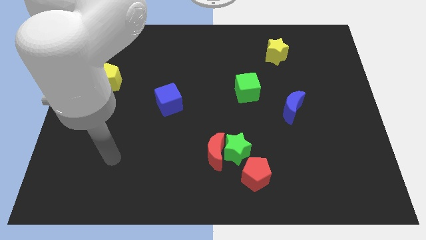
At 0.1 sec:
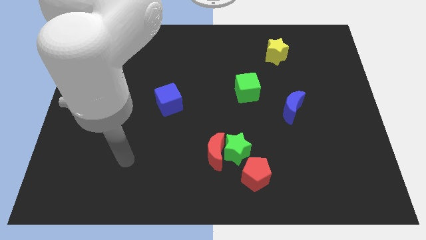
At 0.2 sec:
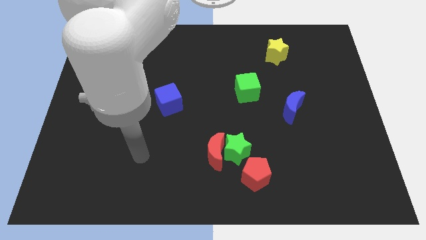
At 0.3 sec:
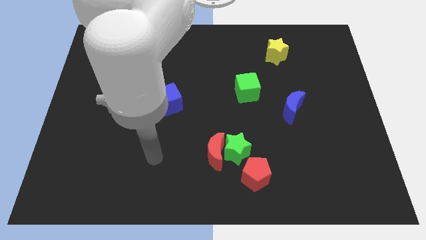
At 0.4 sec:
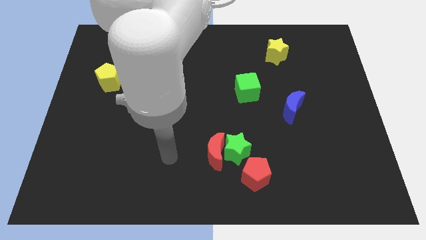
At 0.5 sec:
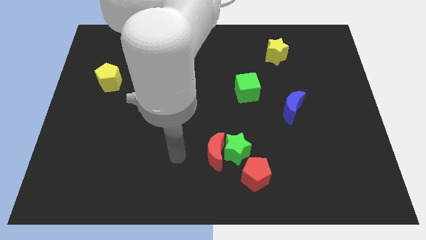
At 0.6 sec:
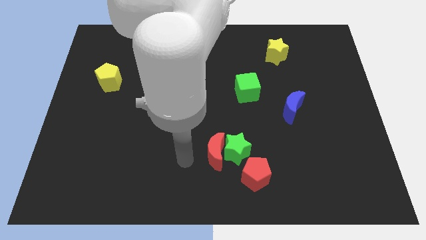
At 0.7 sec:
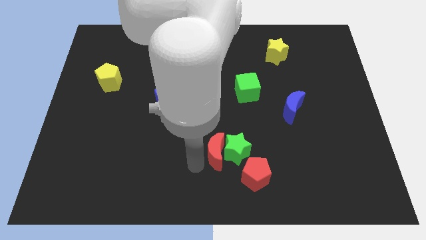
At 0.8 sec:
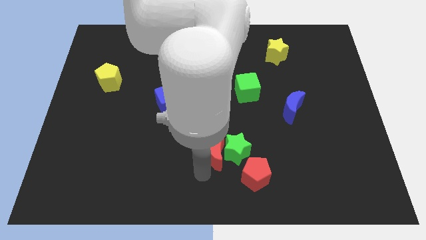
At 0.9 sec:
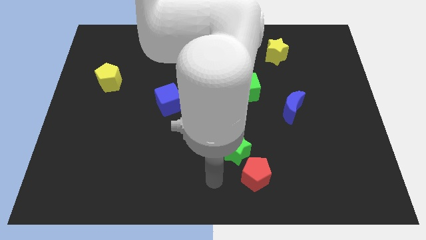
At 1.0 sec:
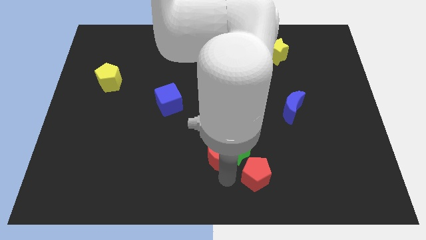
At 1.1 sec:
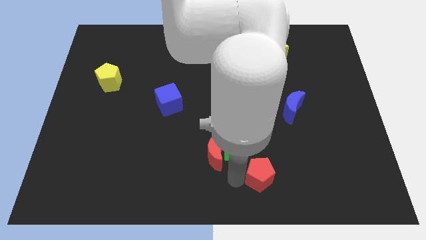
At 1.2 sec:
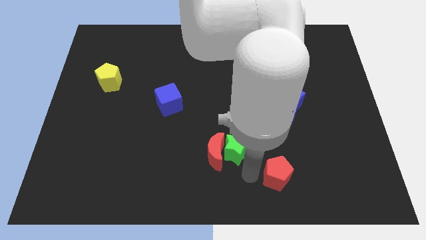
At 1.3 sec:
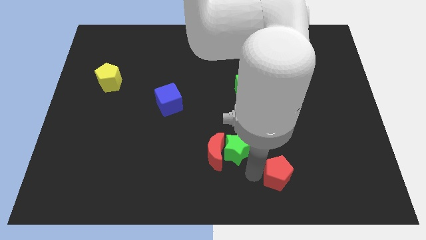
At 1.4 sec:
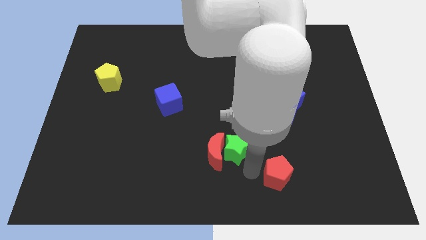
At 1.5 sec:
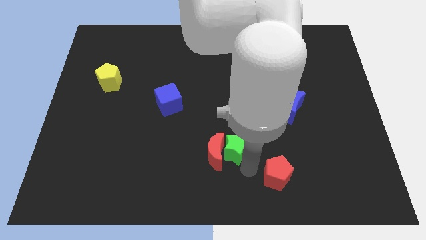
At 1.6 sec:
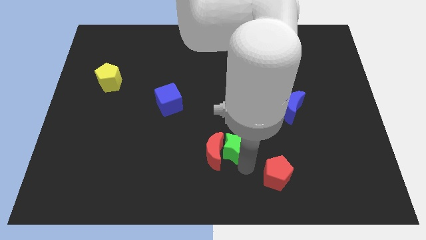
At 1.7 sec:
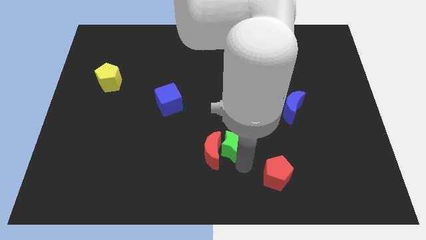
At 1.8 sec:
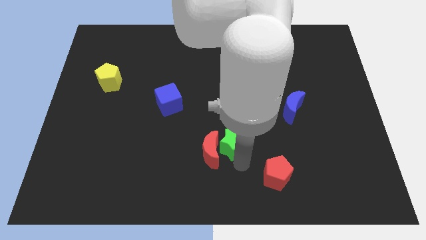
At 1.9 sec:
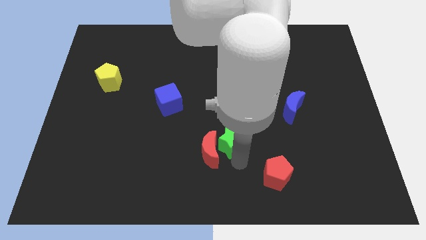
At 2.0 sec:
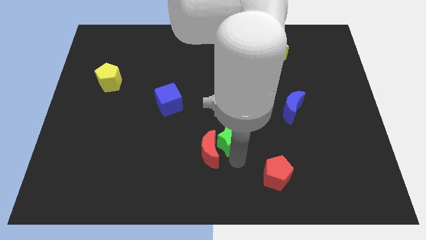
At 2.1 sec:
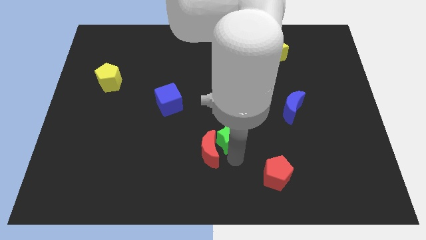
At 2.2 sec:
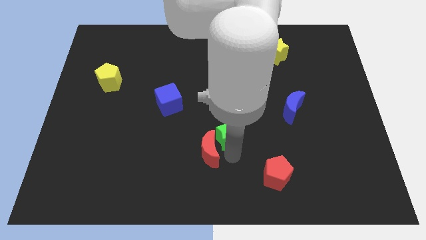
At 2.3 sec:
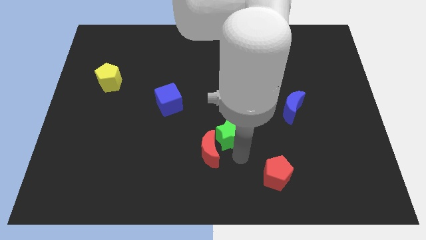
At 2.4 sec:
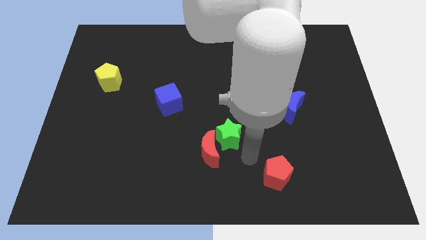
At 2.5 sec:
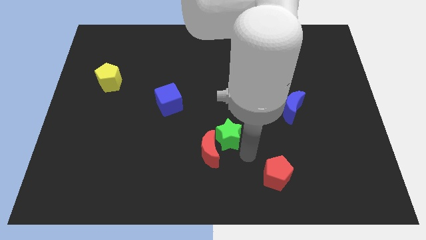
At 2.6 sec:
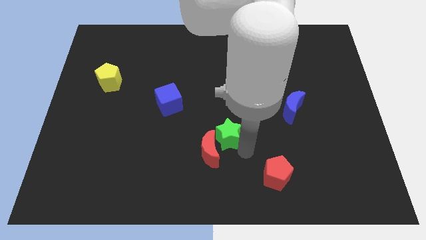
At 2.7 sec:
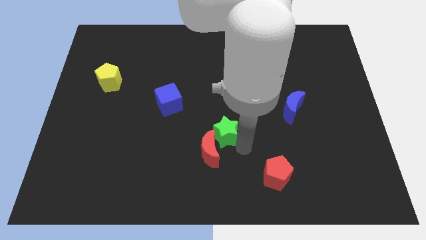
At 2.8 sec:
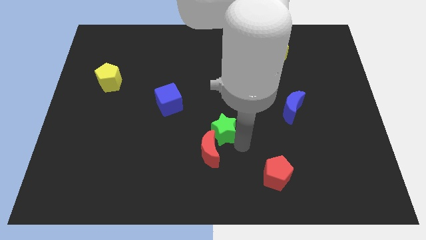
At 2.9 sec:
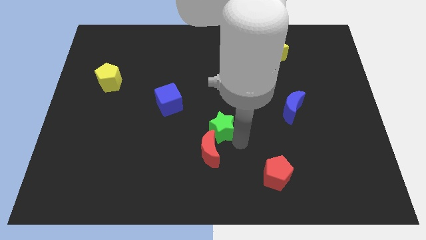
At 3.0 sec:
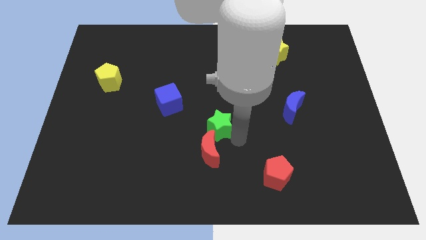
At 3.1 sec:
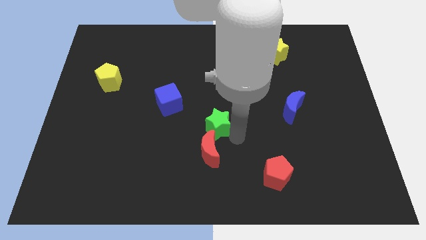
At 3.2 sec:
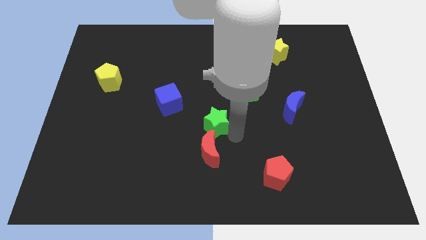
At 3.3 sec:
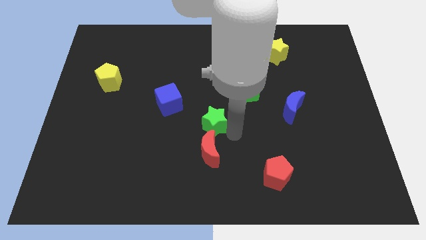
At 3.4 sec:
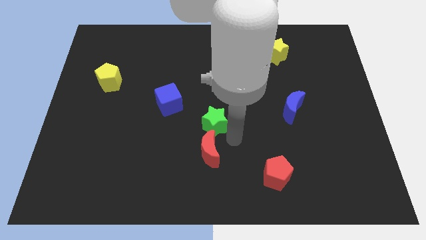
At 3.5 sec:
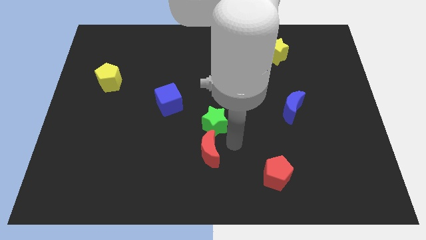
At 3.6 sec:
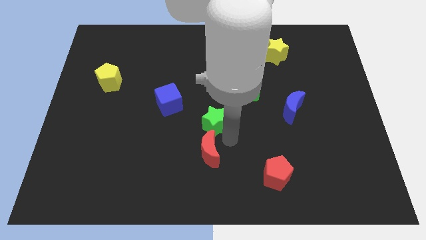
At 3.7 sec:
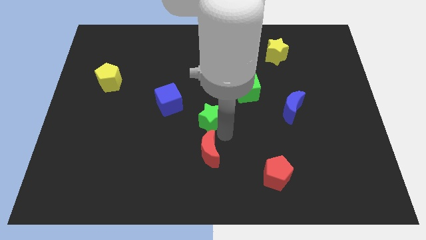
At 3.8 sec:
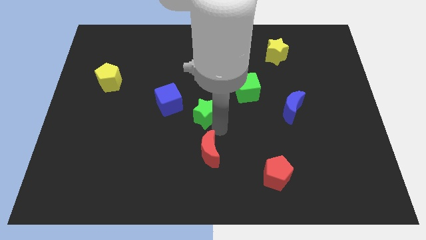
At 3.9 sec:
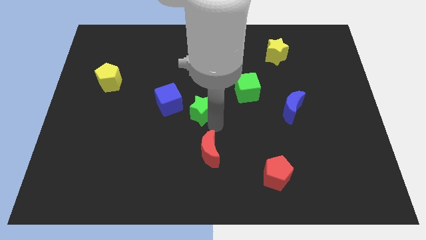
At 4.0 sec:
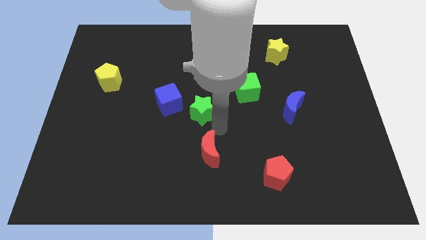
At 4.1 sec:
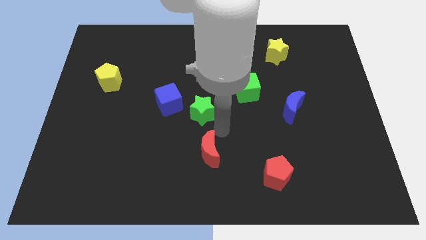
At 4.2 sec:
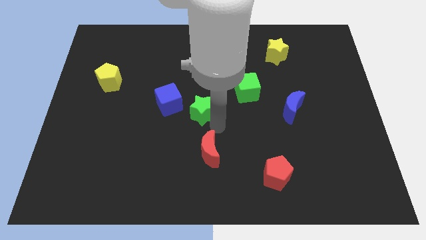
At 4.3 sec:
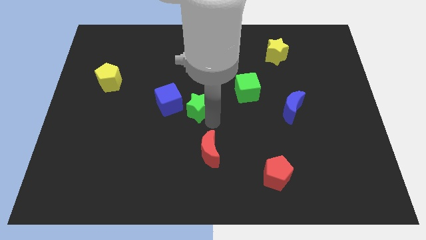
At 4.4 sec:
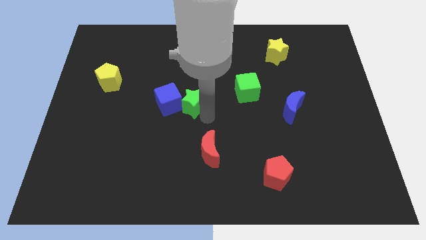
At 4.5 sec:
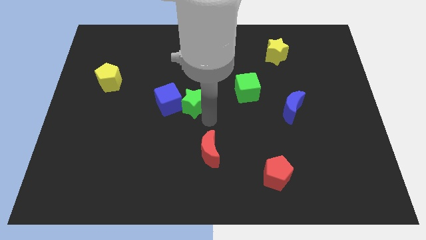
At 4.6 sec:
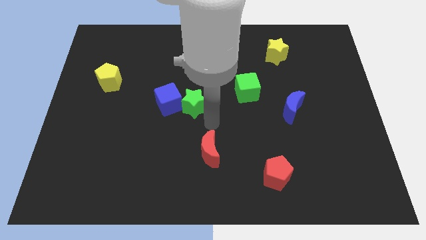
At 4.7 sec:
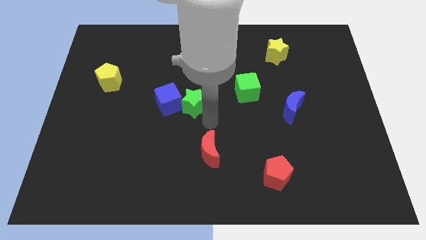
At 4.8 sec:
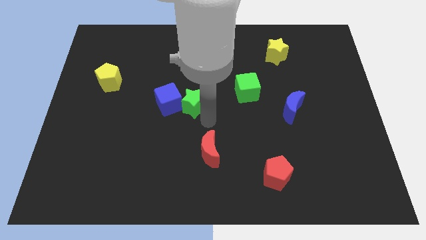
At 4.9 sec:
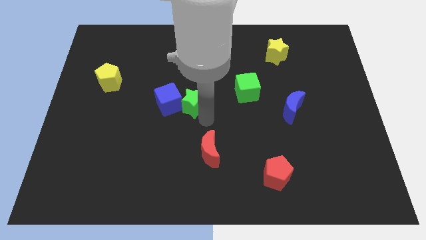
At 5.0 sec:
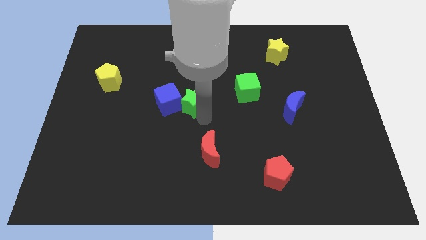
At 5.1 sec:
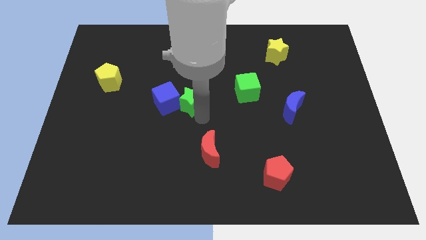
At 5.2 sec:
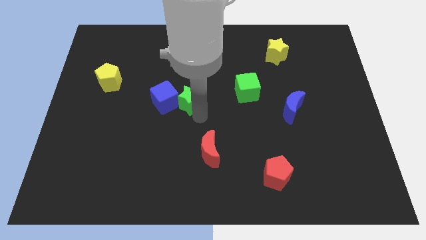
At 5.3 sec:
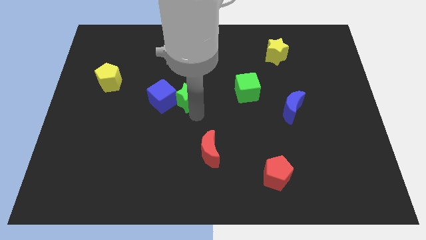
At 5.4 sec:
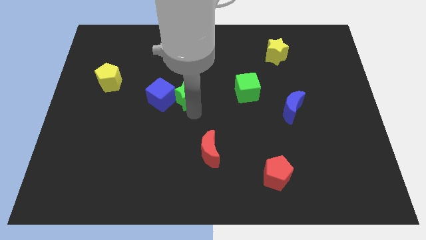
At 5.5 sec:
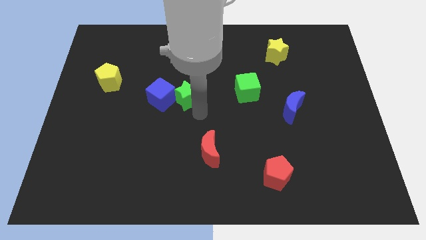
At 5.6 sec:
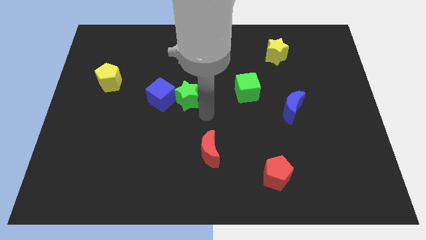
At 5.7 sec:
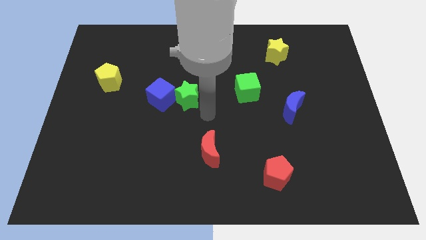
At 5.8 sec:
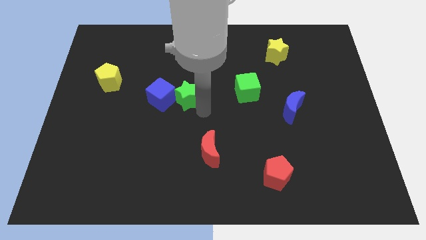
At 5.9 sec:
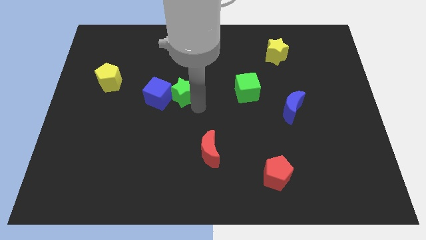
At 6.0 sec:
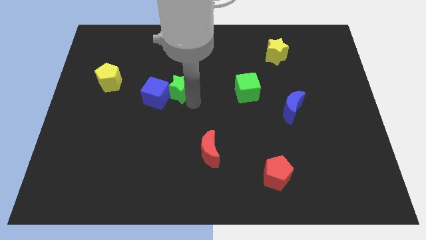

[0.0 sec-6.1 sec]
move the green star diagonally up and to the left

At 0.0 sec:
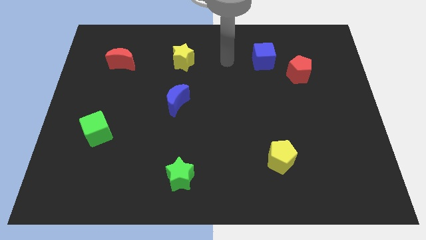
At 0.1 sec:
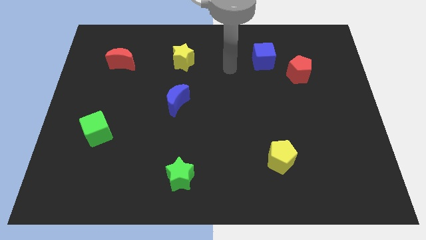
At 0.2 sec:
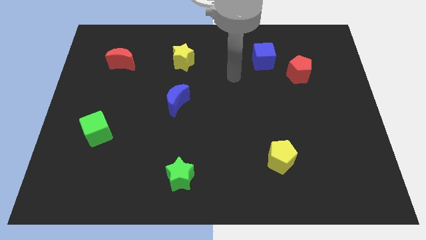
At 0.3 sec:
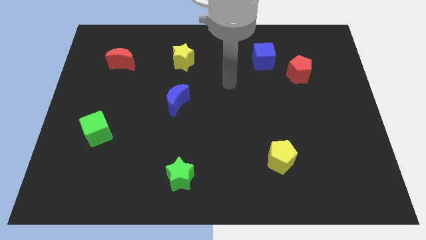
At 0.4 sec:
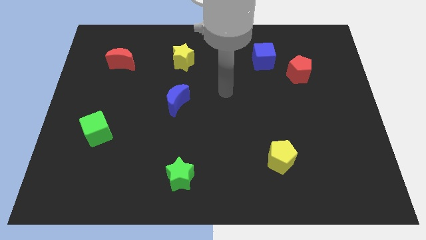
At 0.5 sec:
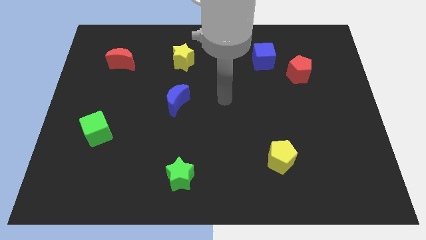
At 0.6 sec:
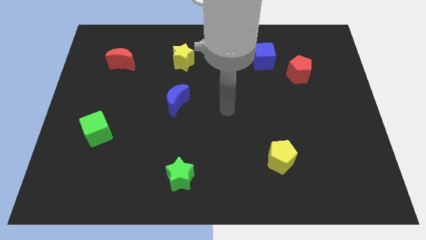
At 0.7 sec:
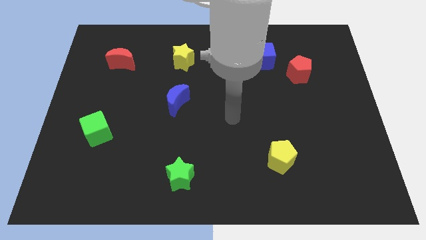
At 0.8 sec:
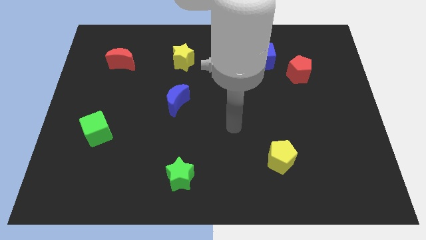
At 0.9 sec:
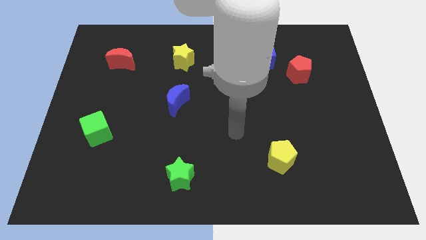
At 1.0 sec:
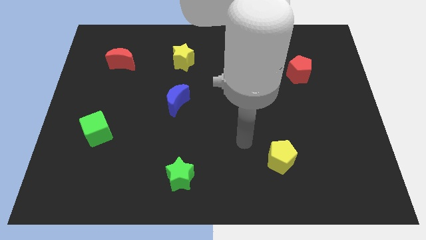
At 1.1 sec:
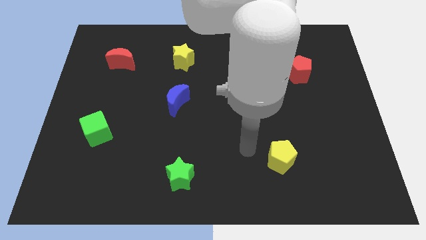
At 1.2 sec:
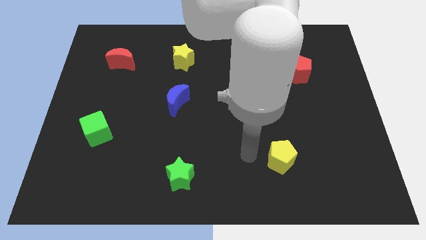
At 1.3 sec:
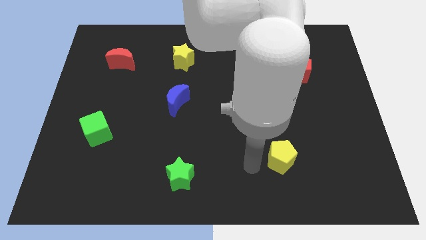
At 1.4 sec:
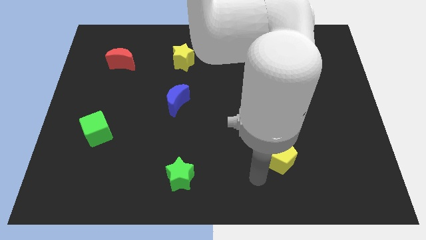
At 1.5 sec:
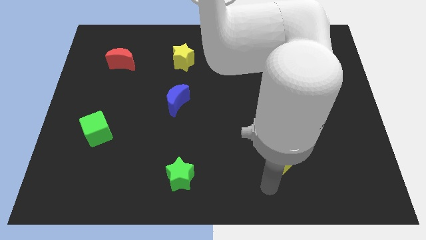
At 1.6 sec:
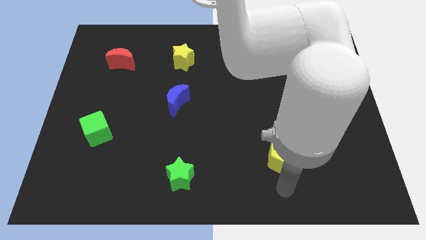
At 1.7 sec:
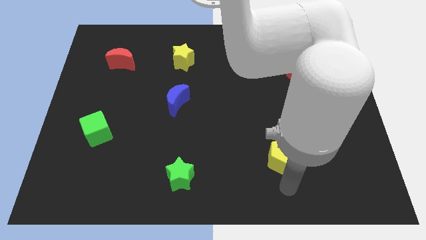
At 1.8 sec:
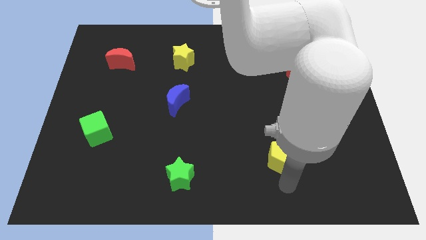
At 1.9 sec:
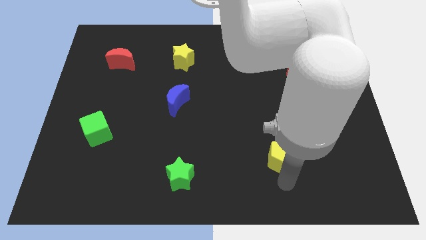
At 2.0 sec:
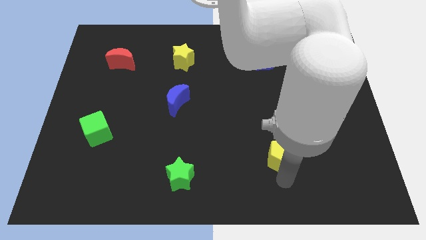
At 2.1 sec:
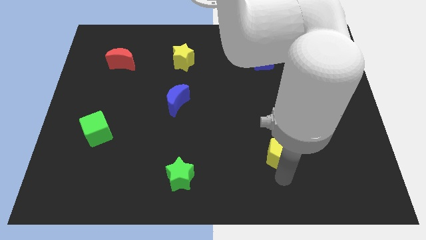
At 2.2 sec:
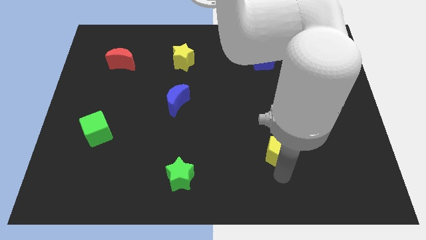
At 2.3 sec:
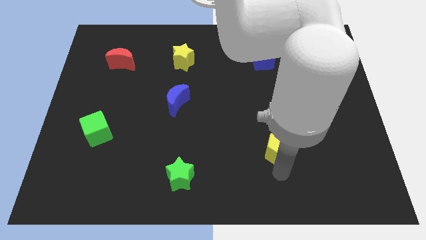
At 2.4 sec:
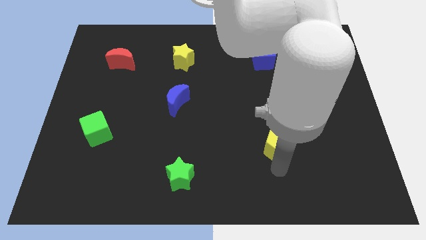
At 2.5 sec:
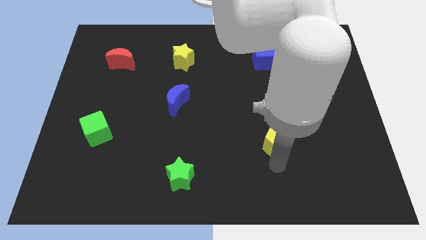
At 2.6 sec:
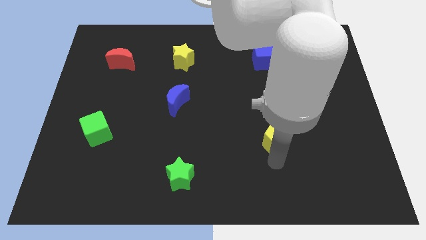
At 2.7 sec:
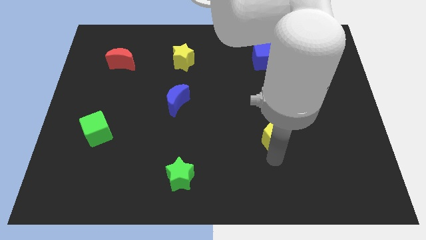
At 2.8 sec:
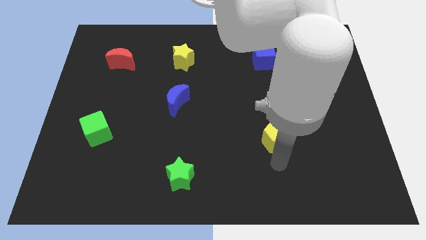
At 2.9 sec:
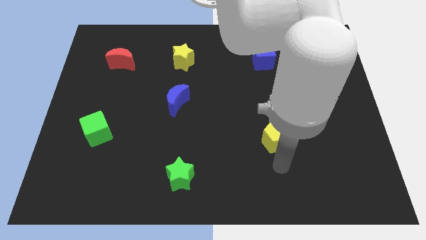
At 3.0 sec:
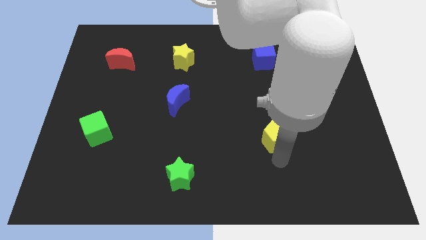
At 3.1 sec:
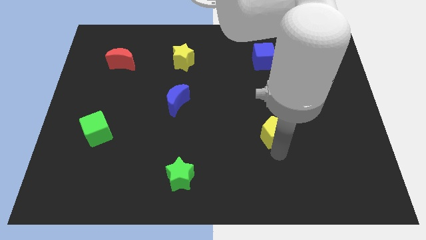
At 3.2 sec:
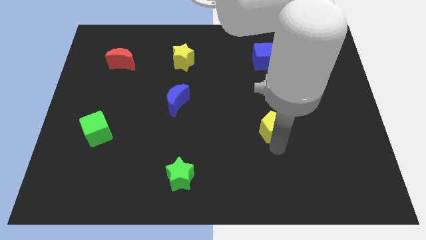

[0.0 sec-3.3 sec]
move the yellow pentagon a little up
